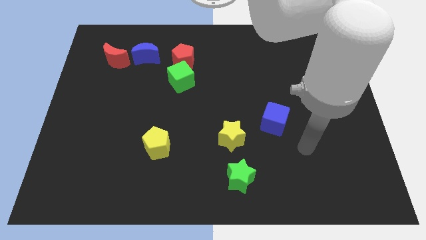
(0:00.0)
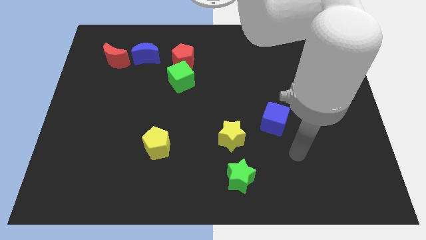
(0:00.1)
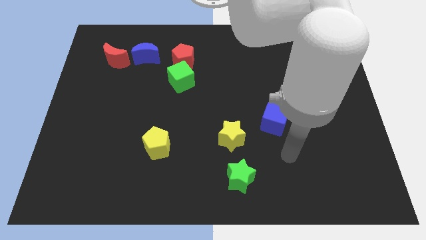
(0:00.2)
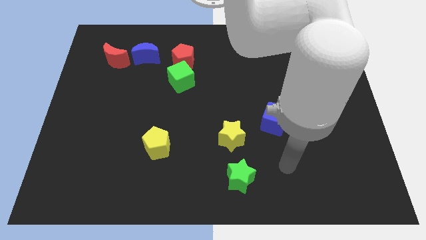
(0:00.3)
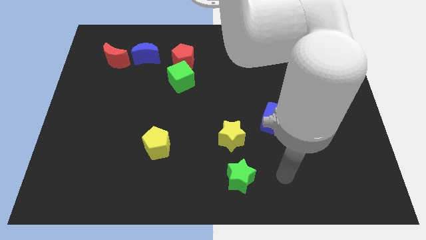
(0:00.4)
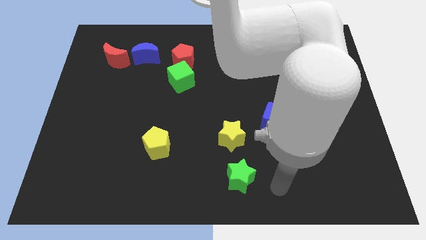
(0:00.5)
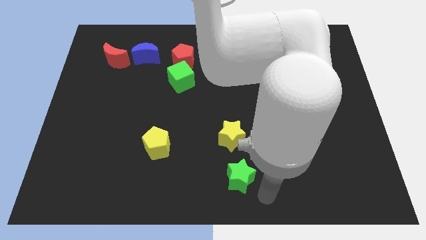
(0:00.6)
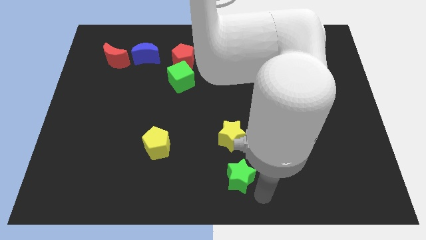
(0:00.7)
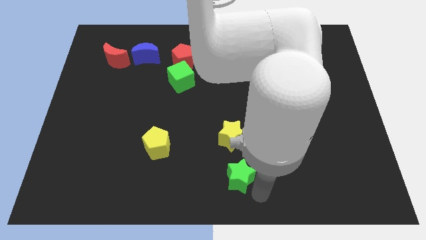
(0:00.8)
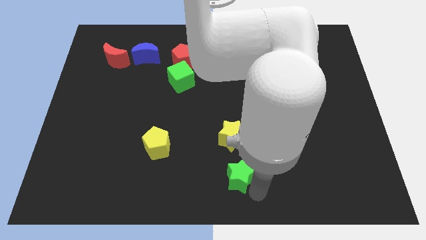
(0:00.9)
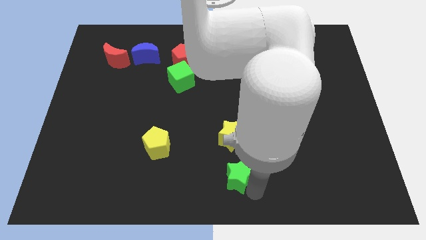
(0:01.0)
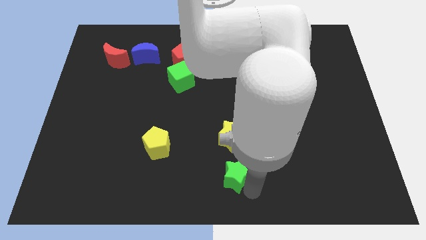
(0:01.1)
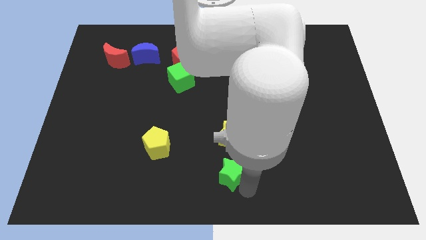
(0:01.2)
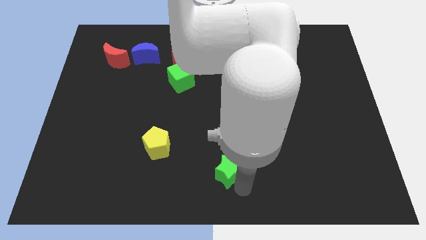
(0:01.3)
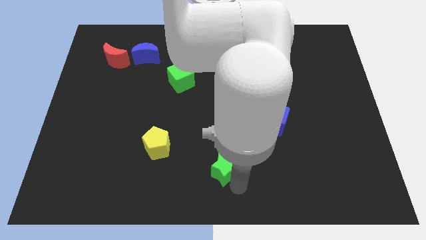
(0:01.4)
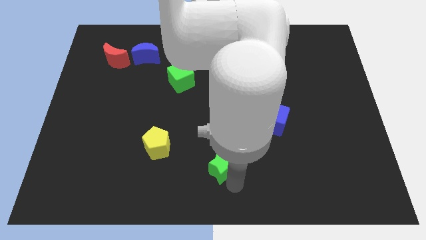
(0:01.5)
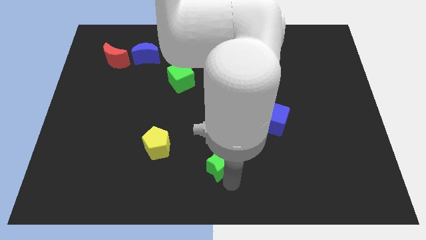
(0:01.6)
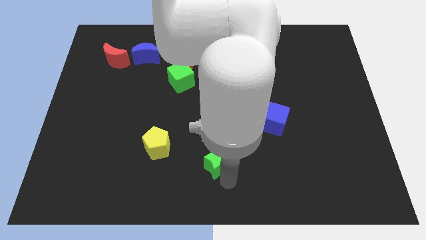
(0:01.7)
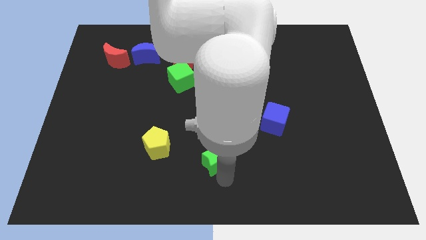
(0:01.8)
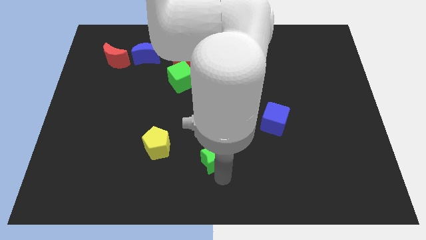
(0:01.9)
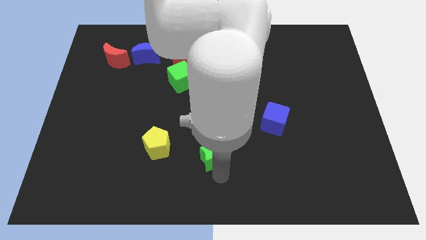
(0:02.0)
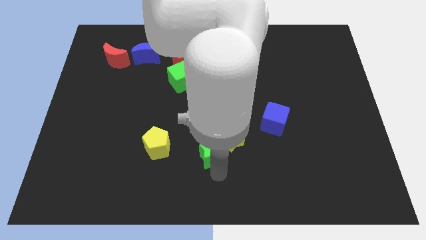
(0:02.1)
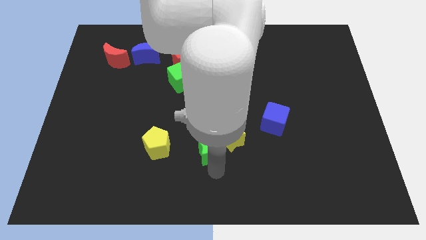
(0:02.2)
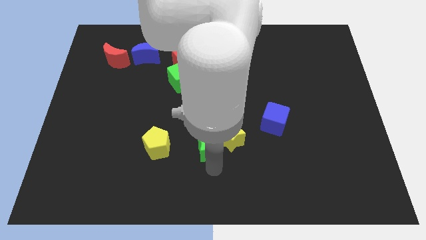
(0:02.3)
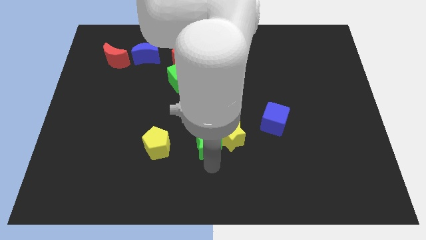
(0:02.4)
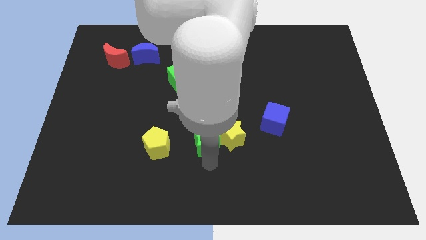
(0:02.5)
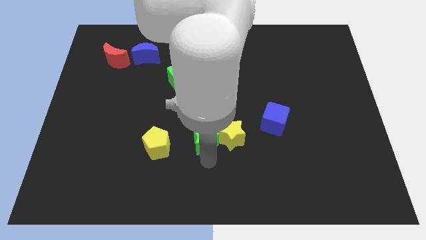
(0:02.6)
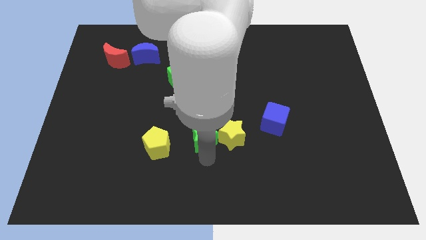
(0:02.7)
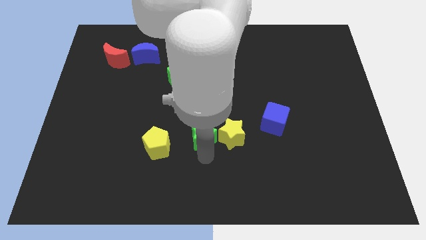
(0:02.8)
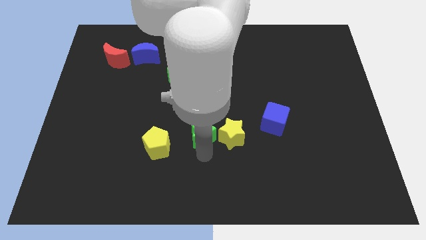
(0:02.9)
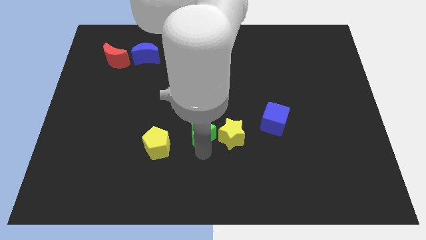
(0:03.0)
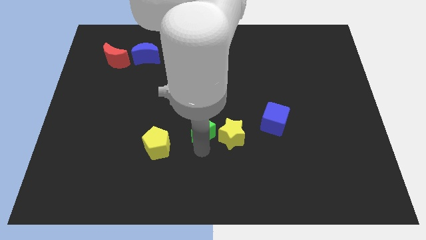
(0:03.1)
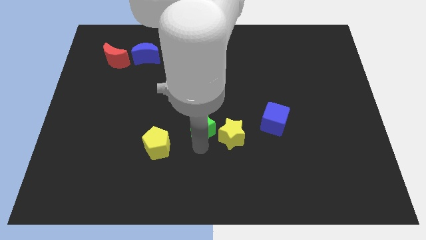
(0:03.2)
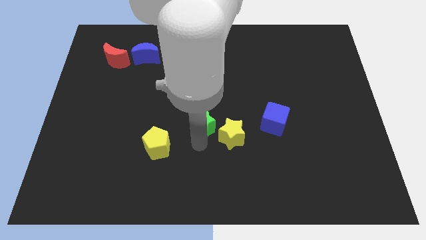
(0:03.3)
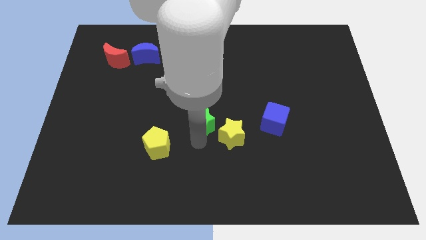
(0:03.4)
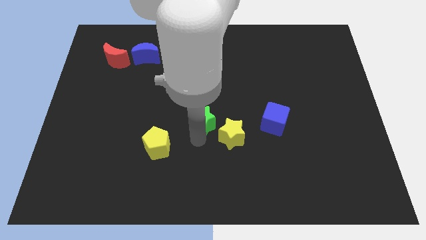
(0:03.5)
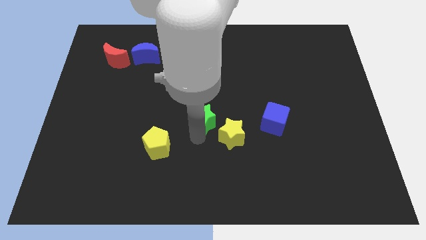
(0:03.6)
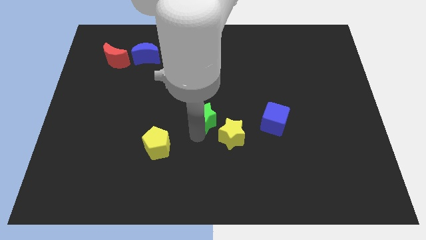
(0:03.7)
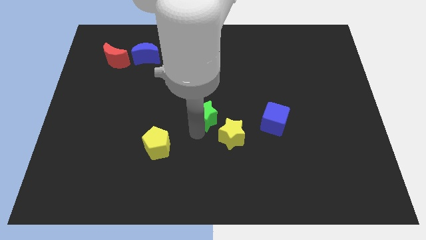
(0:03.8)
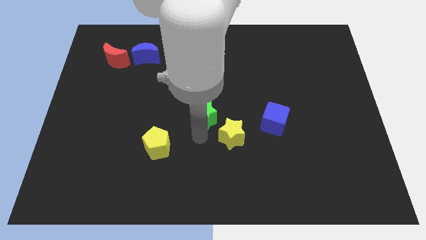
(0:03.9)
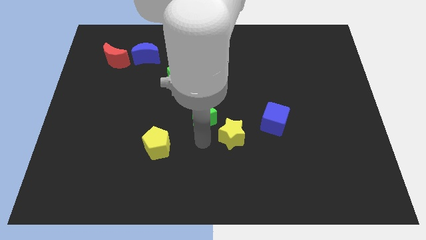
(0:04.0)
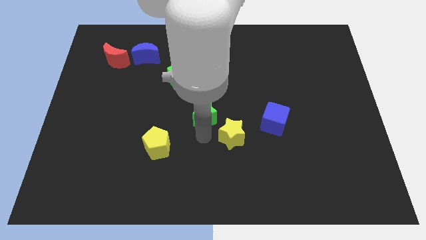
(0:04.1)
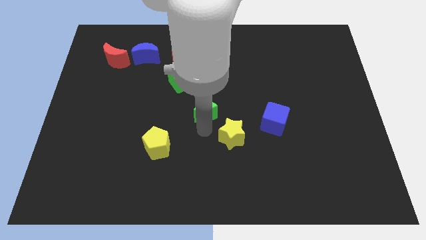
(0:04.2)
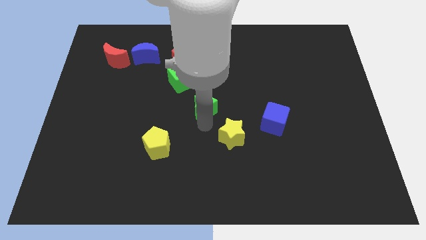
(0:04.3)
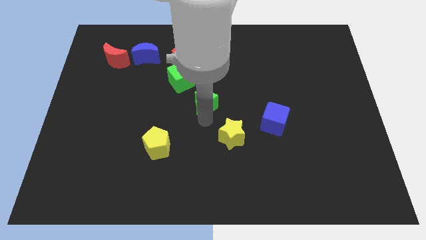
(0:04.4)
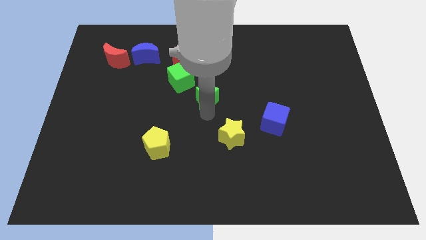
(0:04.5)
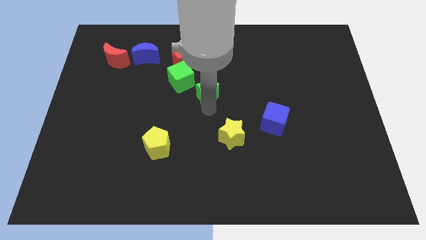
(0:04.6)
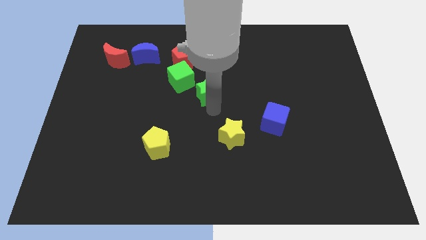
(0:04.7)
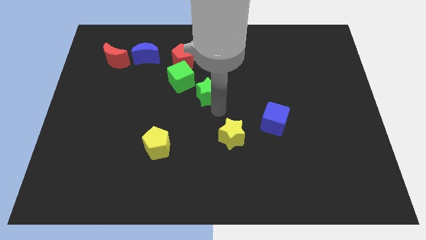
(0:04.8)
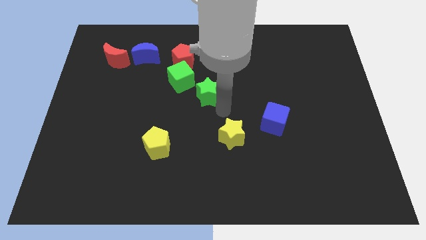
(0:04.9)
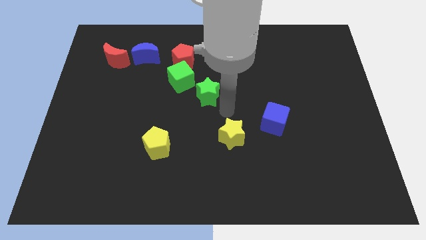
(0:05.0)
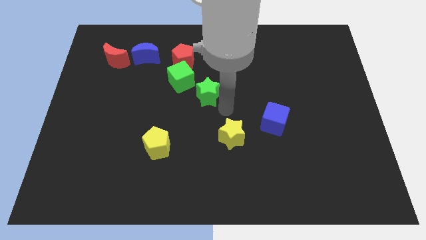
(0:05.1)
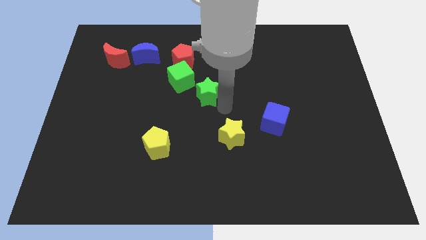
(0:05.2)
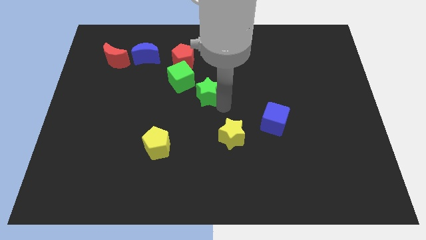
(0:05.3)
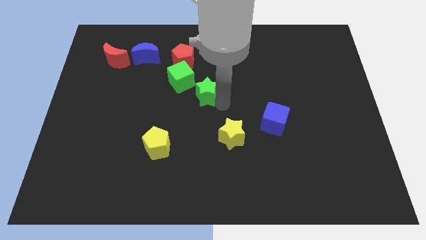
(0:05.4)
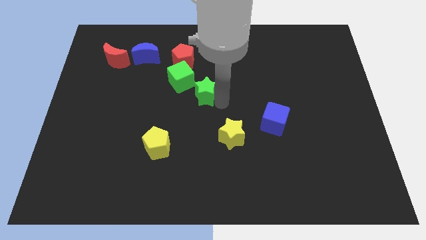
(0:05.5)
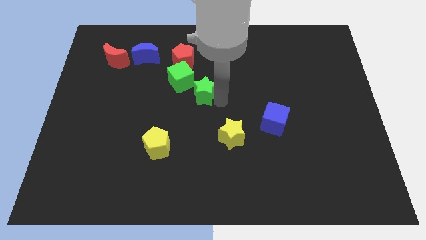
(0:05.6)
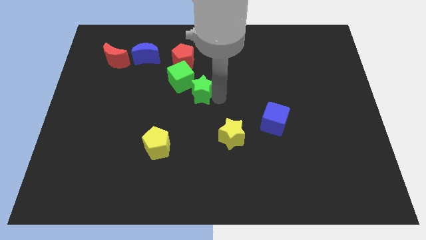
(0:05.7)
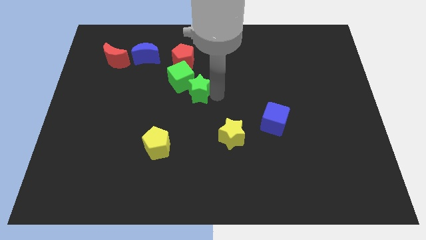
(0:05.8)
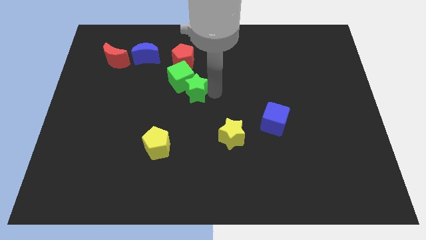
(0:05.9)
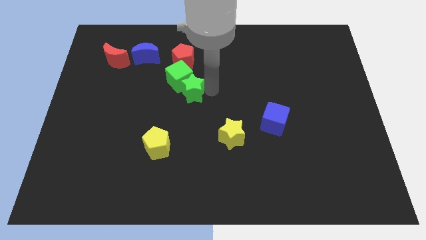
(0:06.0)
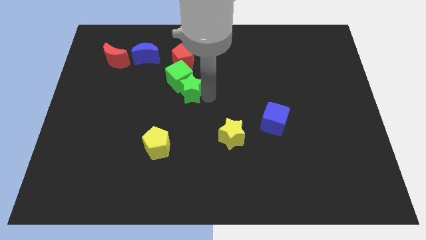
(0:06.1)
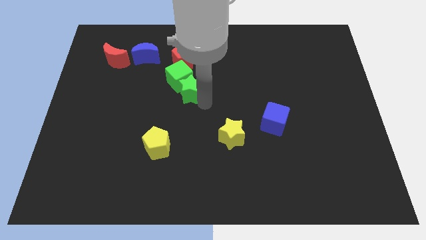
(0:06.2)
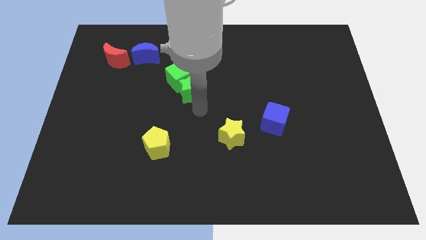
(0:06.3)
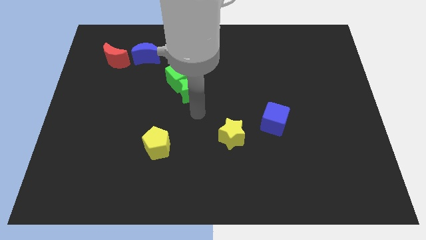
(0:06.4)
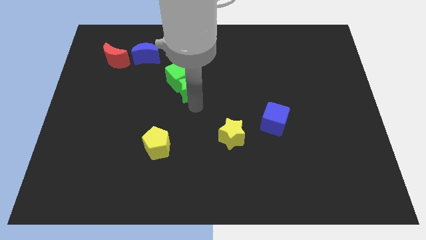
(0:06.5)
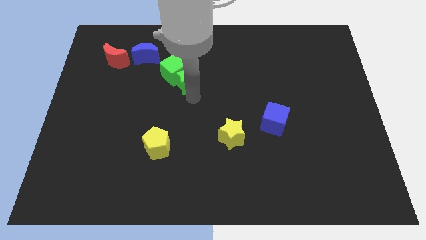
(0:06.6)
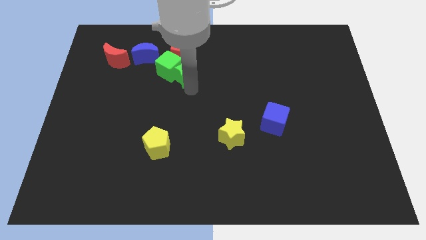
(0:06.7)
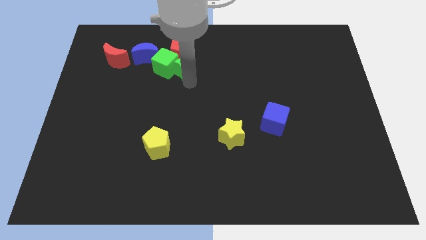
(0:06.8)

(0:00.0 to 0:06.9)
put the green star towards the red pentagon

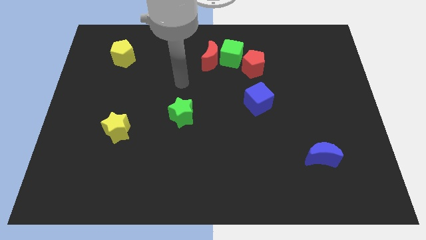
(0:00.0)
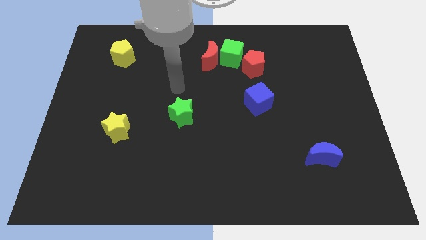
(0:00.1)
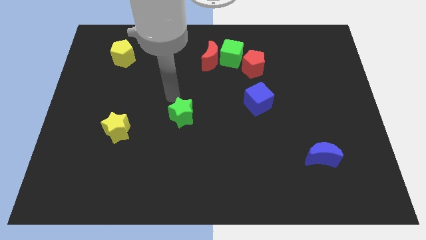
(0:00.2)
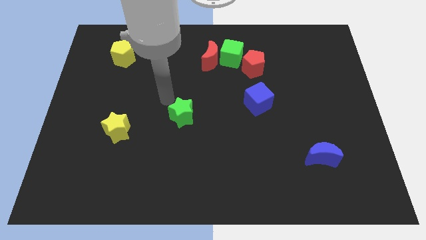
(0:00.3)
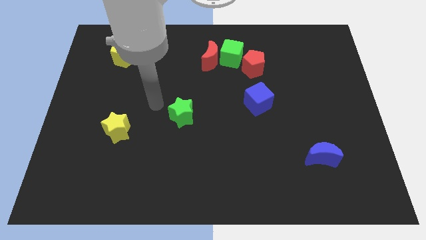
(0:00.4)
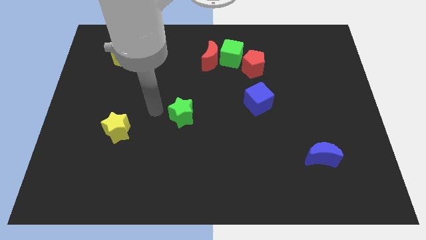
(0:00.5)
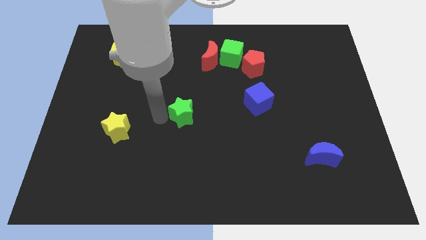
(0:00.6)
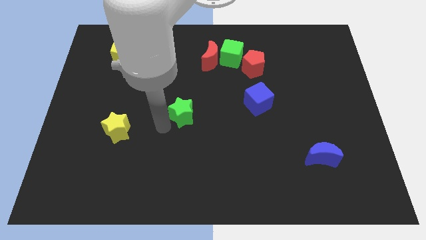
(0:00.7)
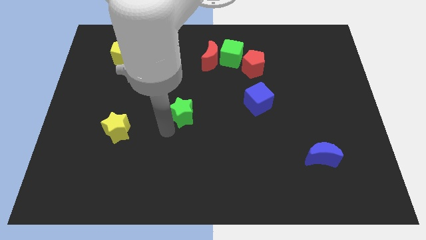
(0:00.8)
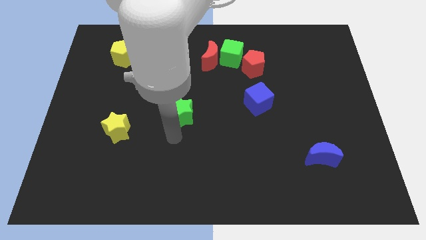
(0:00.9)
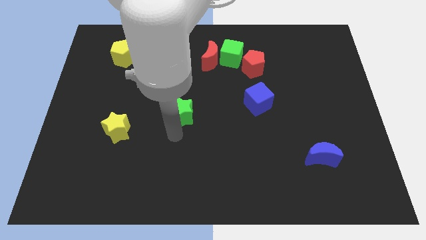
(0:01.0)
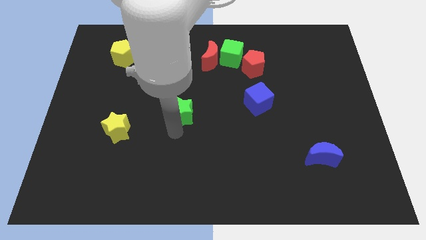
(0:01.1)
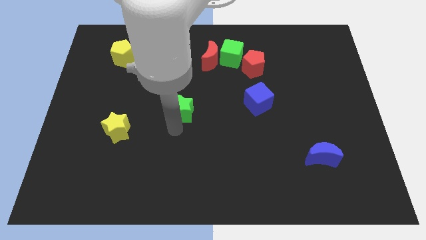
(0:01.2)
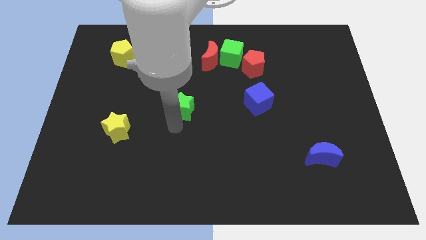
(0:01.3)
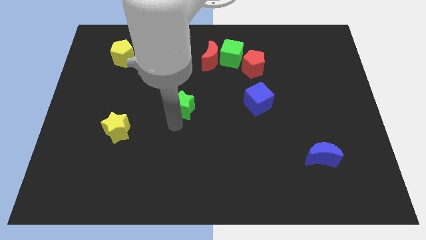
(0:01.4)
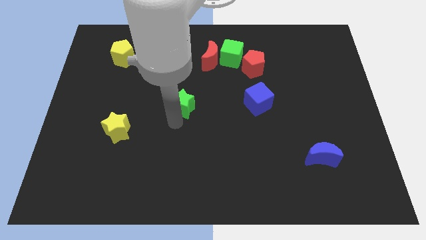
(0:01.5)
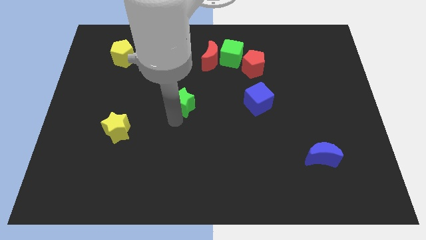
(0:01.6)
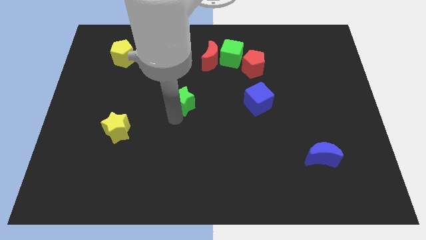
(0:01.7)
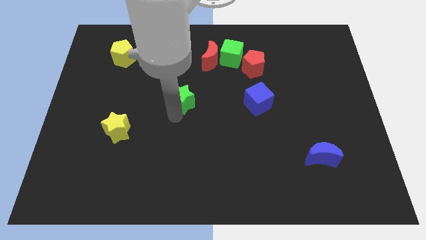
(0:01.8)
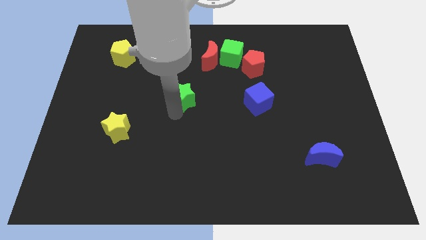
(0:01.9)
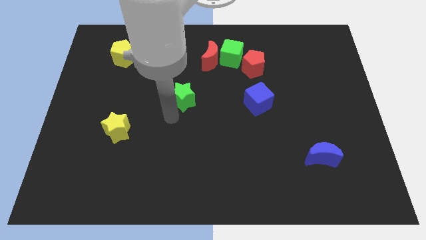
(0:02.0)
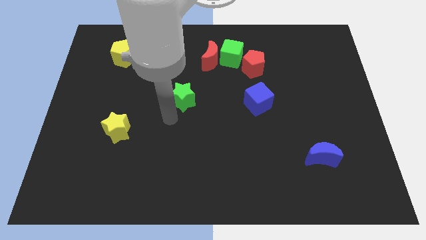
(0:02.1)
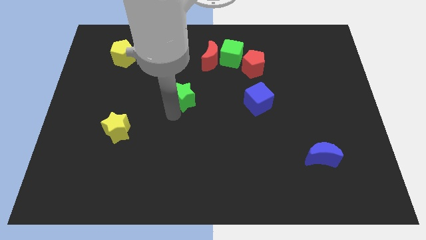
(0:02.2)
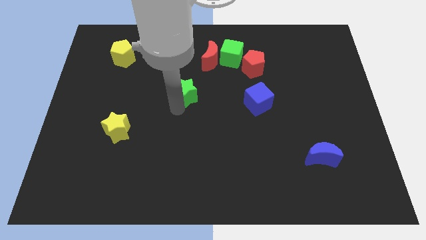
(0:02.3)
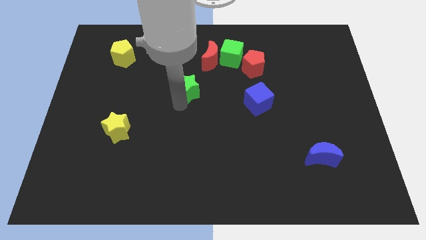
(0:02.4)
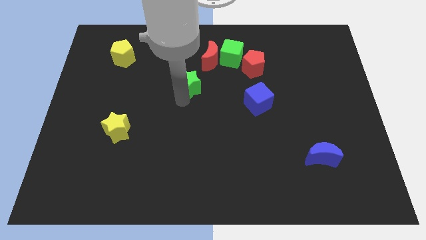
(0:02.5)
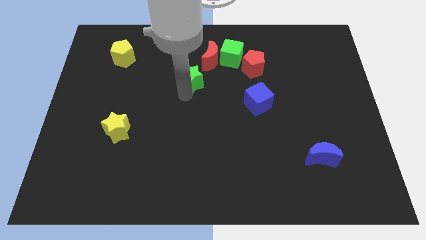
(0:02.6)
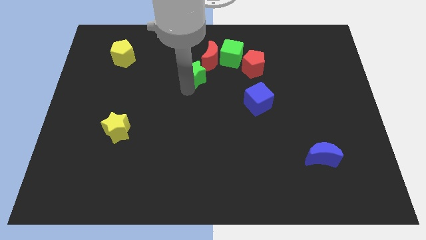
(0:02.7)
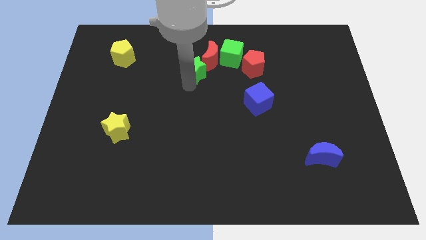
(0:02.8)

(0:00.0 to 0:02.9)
move the green star to the red moon
